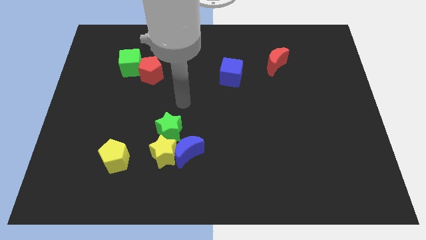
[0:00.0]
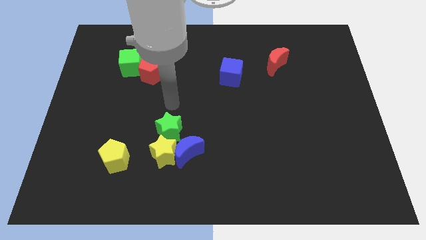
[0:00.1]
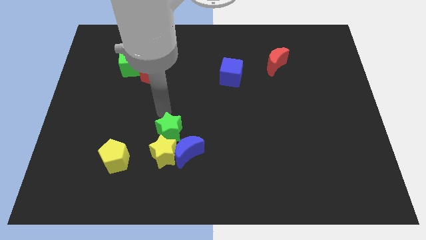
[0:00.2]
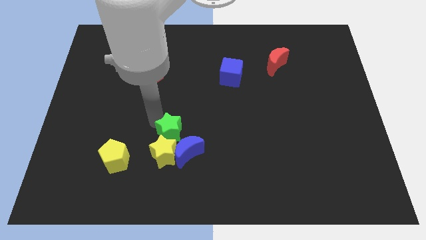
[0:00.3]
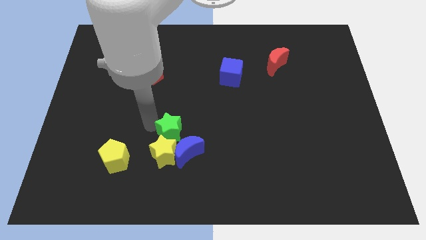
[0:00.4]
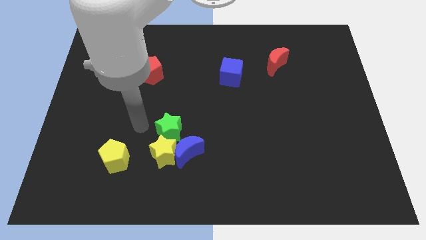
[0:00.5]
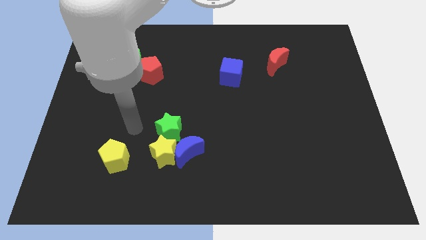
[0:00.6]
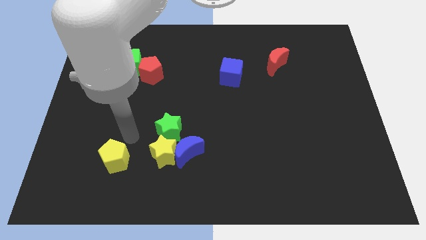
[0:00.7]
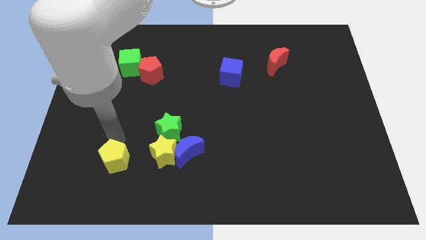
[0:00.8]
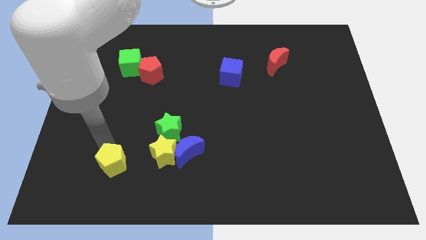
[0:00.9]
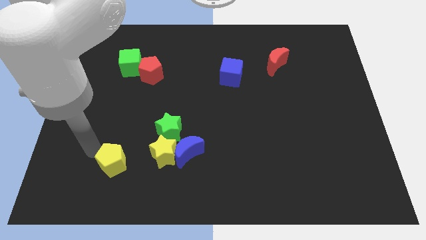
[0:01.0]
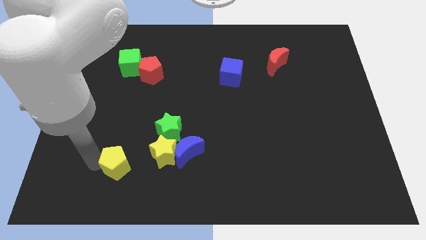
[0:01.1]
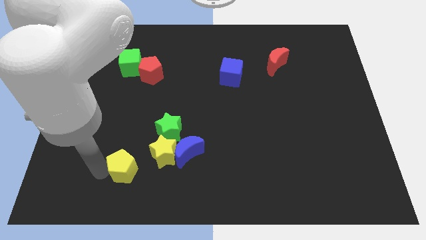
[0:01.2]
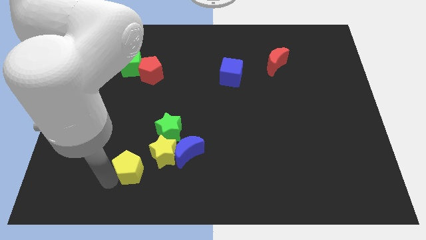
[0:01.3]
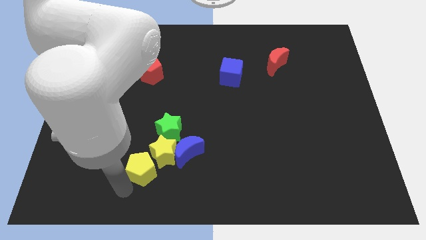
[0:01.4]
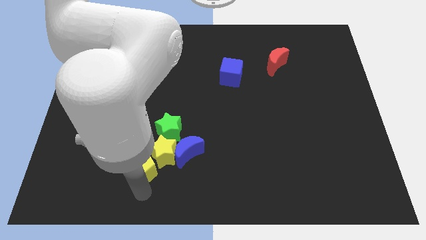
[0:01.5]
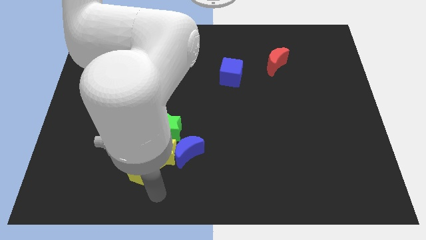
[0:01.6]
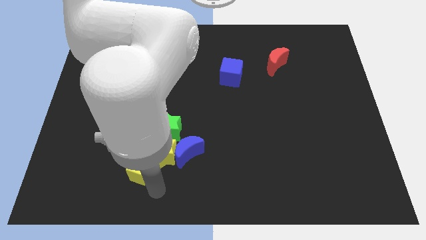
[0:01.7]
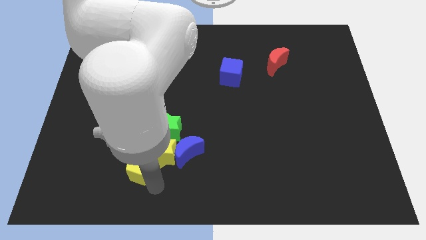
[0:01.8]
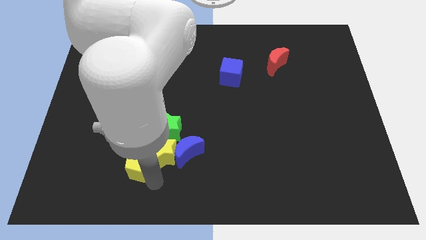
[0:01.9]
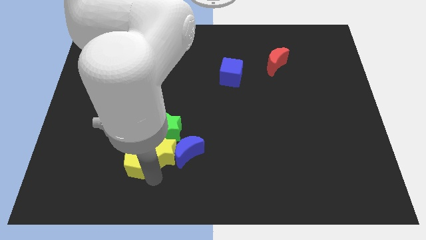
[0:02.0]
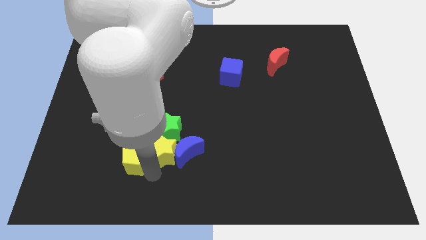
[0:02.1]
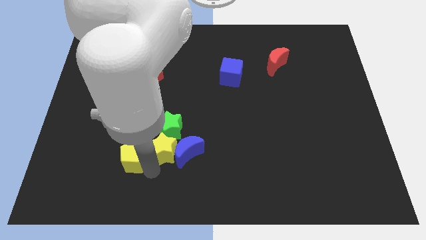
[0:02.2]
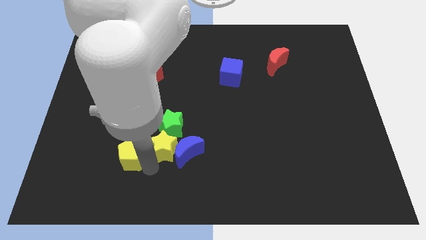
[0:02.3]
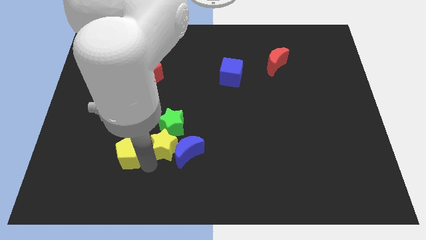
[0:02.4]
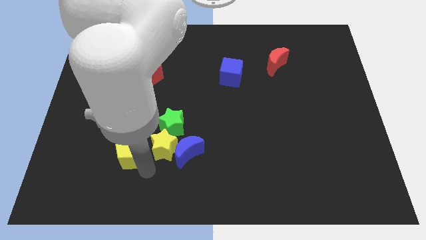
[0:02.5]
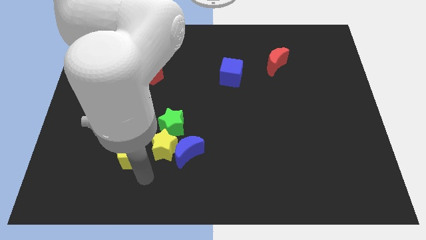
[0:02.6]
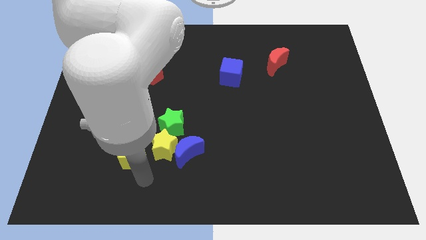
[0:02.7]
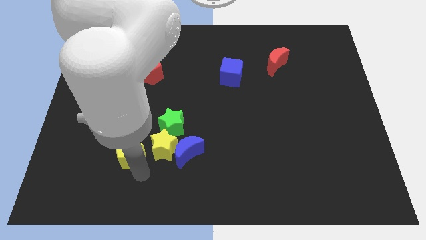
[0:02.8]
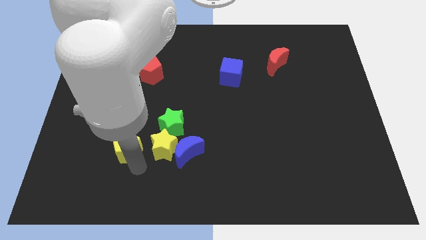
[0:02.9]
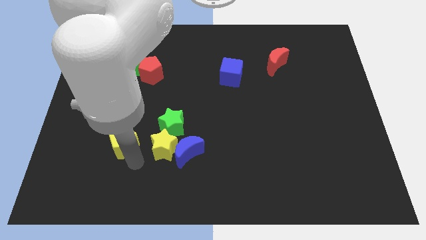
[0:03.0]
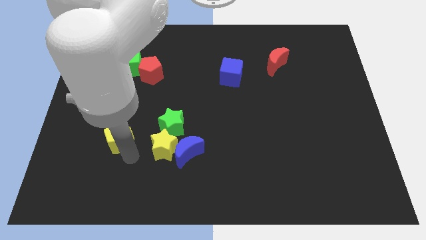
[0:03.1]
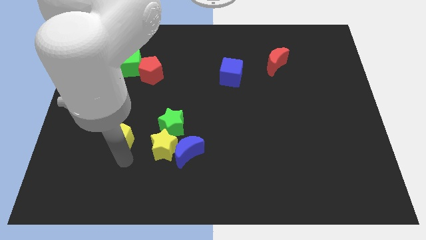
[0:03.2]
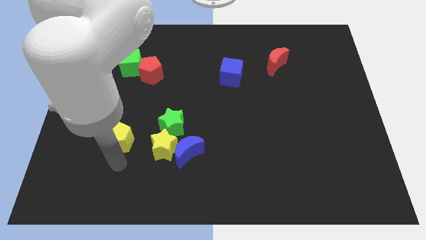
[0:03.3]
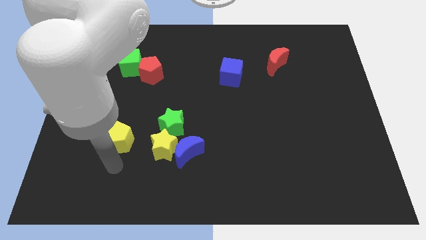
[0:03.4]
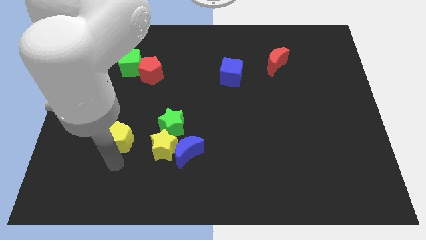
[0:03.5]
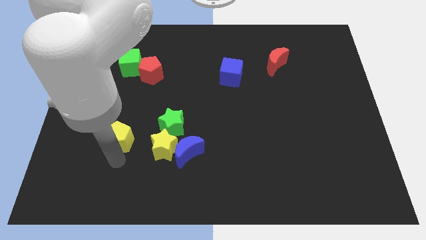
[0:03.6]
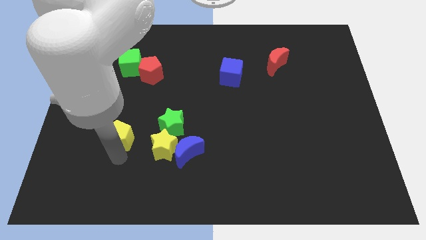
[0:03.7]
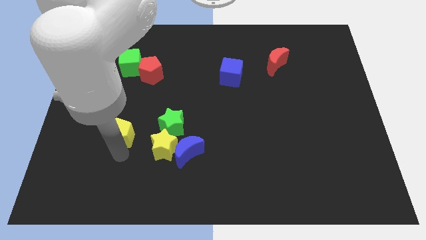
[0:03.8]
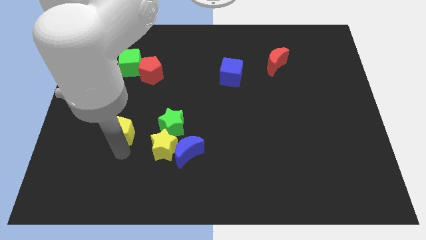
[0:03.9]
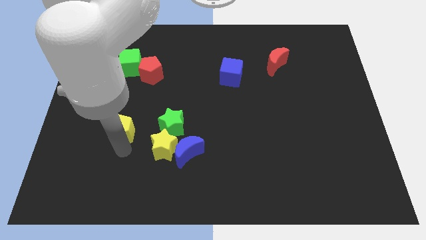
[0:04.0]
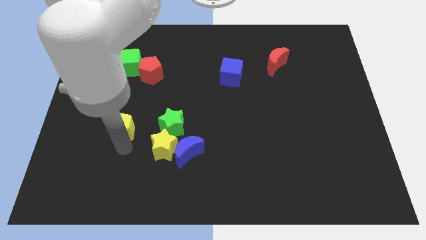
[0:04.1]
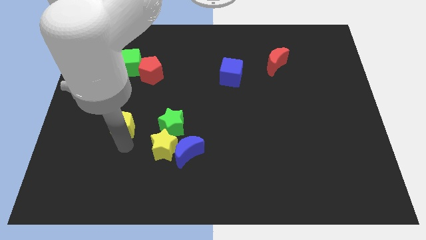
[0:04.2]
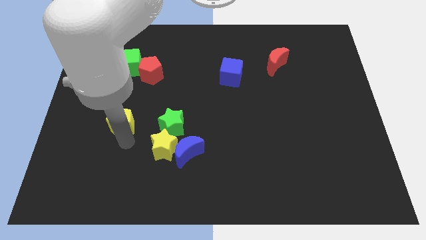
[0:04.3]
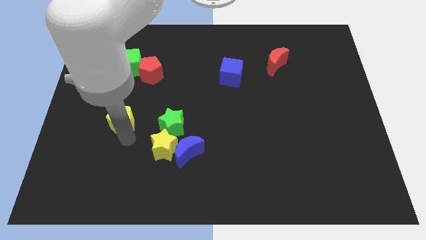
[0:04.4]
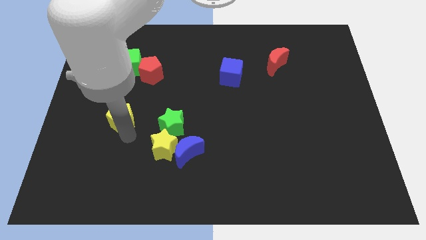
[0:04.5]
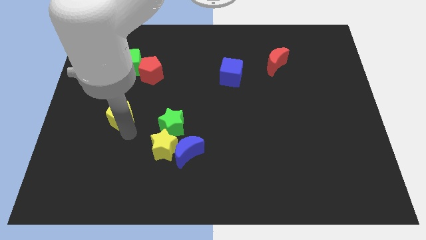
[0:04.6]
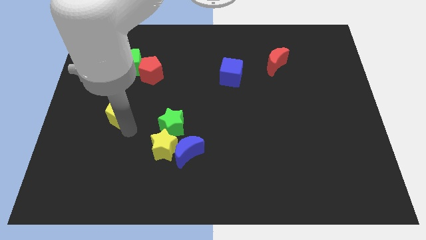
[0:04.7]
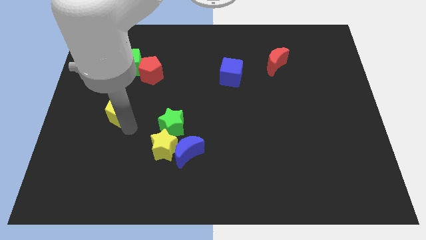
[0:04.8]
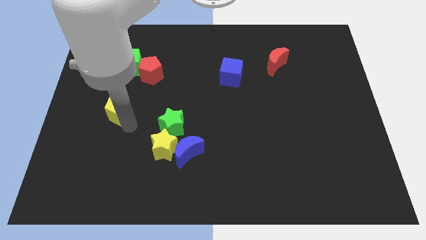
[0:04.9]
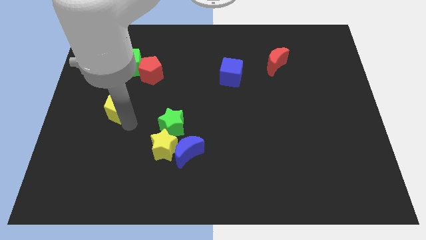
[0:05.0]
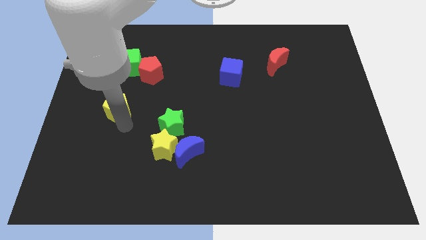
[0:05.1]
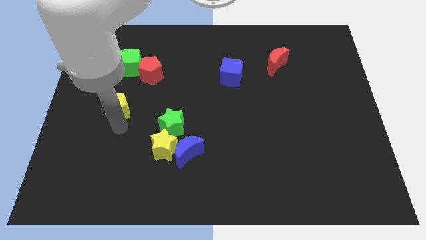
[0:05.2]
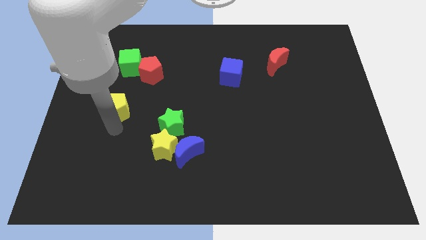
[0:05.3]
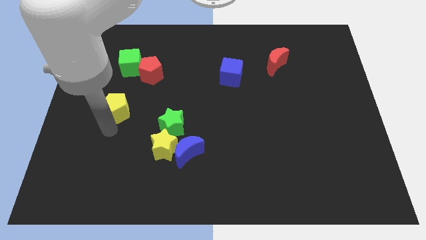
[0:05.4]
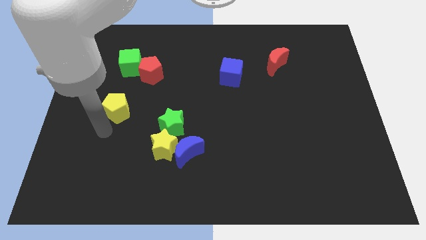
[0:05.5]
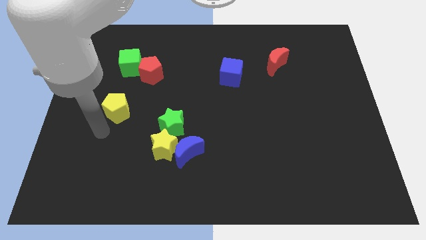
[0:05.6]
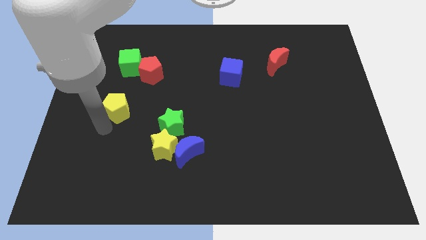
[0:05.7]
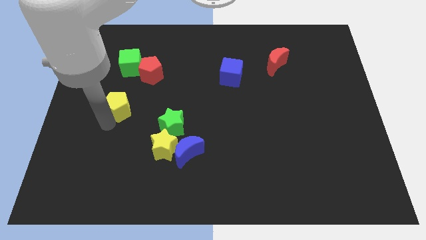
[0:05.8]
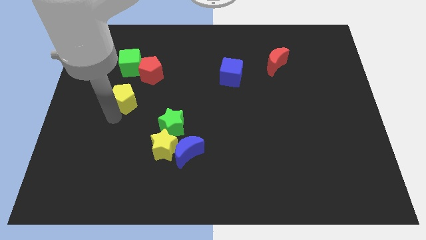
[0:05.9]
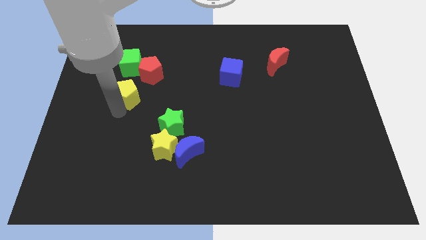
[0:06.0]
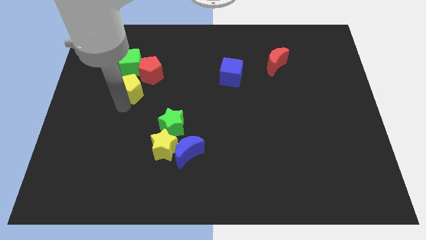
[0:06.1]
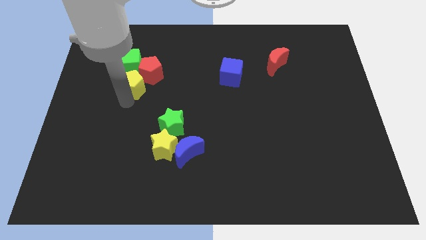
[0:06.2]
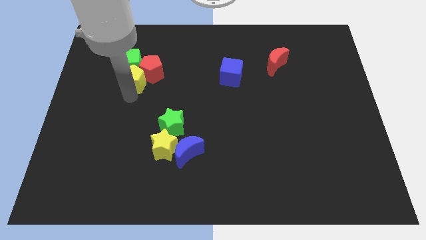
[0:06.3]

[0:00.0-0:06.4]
move the yellow pentagon to the green cube
